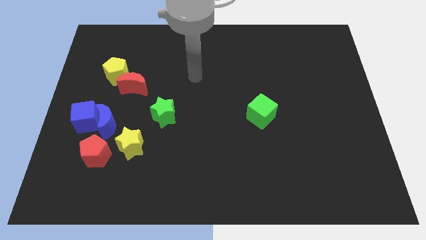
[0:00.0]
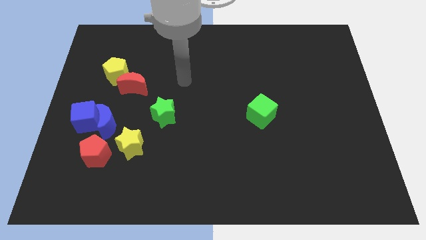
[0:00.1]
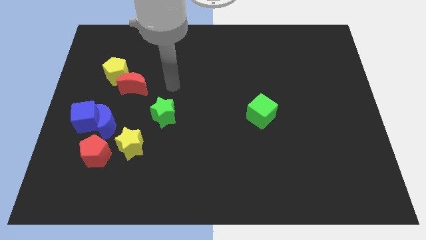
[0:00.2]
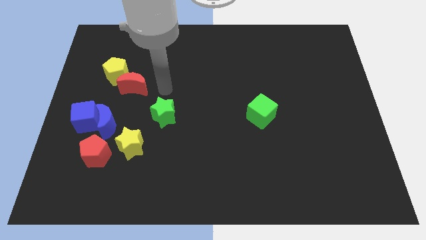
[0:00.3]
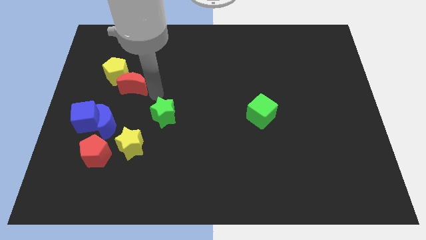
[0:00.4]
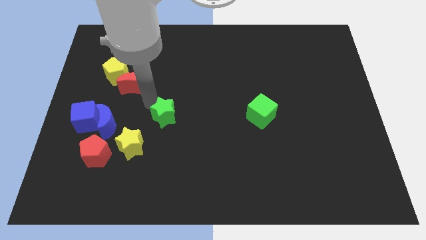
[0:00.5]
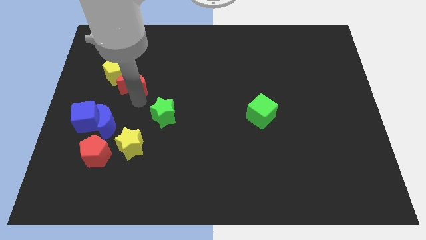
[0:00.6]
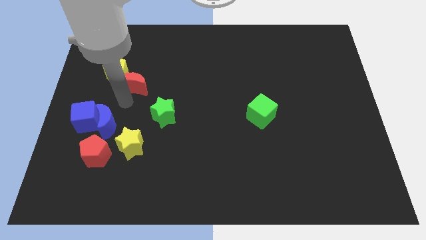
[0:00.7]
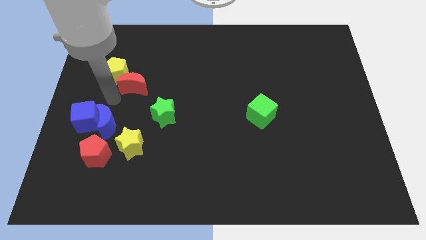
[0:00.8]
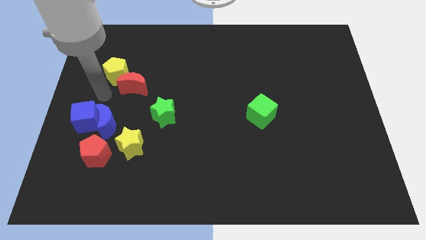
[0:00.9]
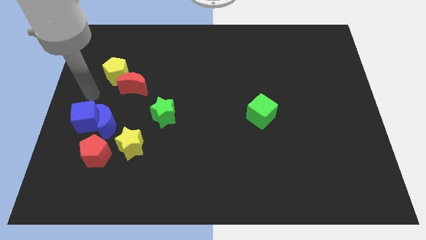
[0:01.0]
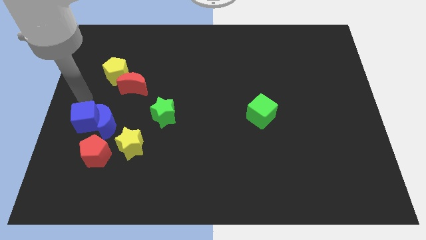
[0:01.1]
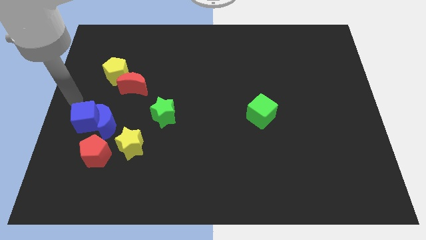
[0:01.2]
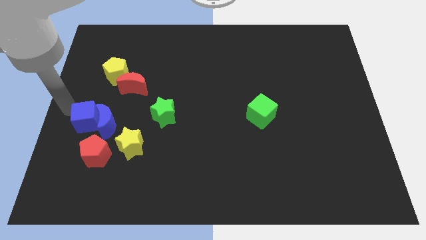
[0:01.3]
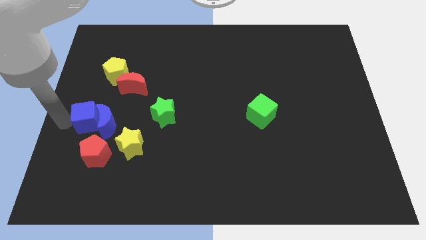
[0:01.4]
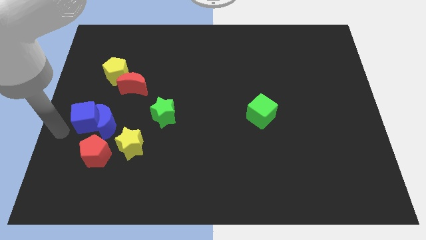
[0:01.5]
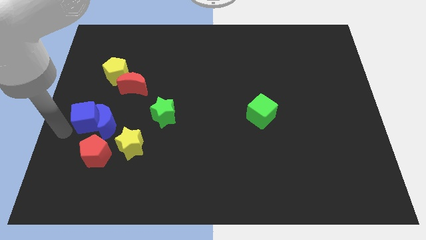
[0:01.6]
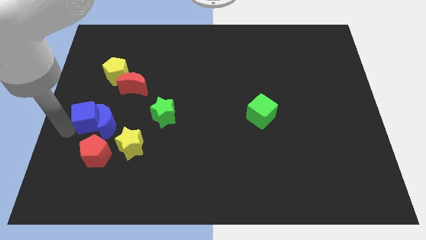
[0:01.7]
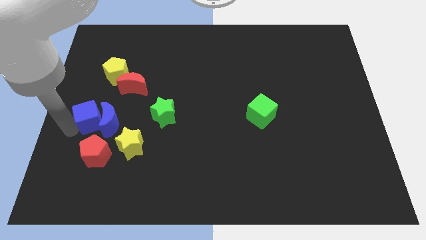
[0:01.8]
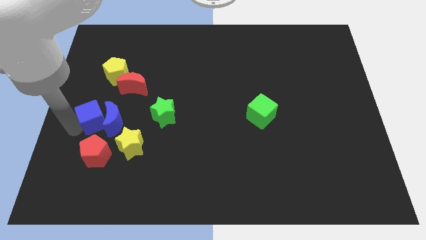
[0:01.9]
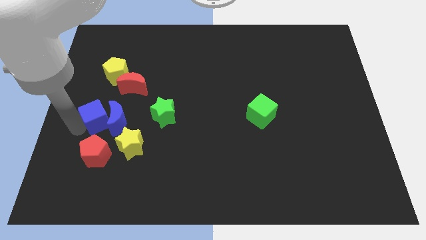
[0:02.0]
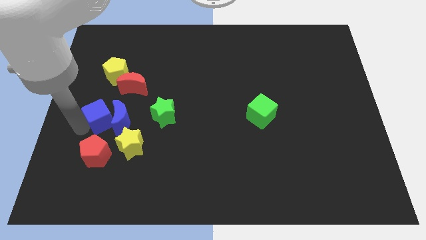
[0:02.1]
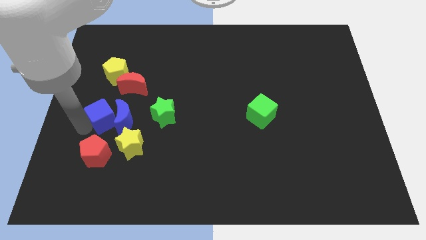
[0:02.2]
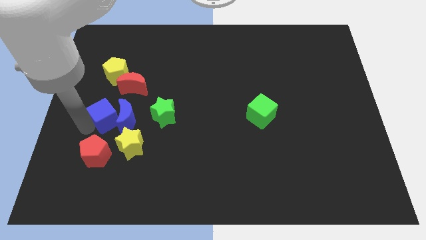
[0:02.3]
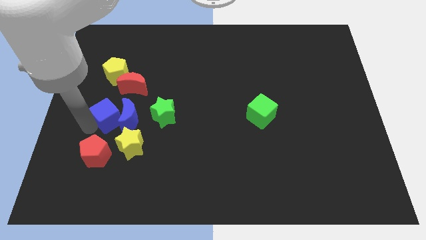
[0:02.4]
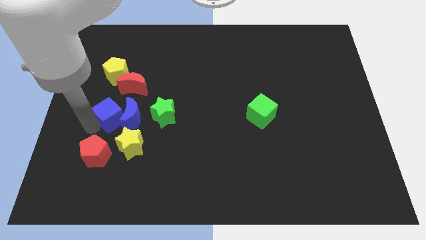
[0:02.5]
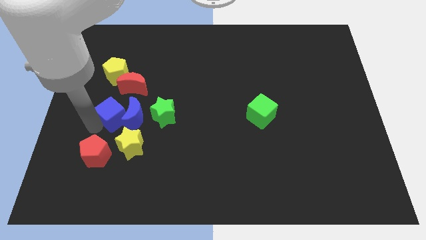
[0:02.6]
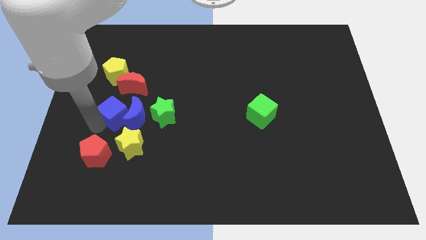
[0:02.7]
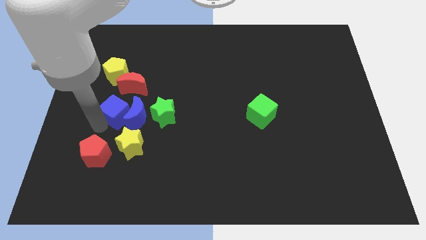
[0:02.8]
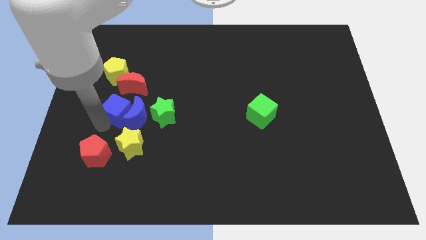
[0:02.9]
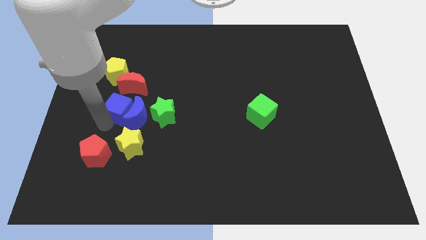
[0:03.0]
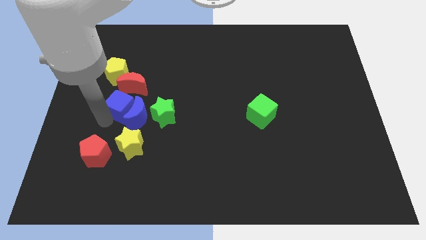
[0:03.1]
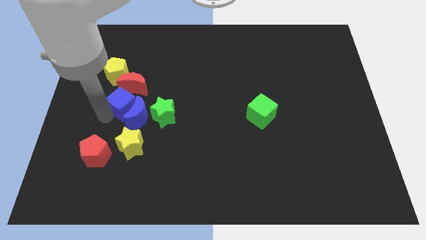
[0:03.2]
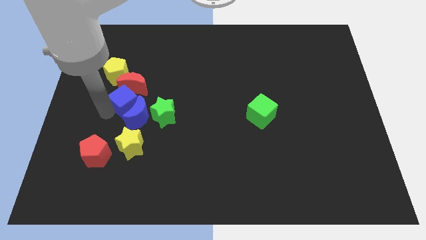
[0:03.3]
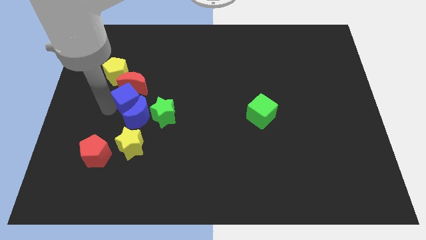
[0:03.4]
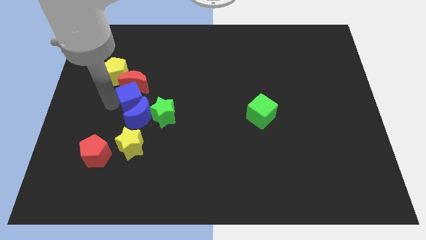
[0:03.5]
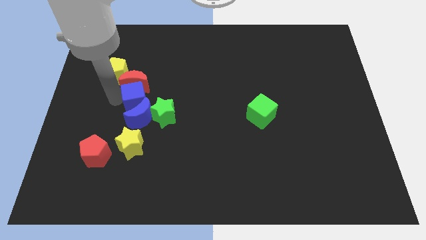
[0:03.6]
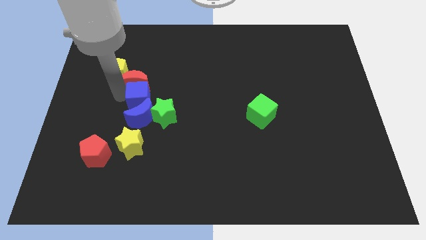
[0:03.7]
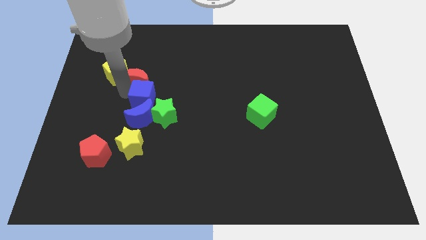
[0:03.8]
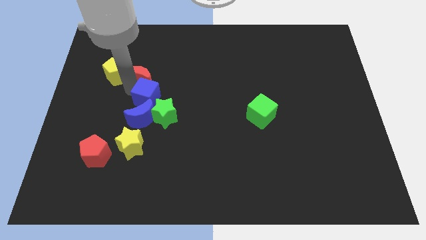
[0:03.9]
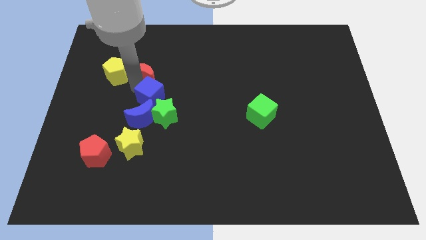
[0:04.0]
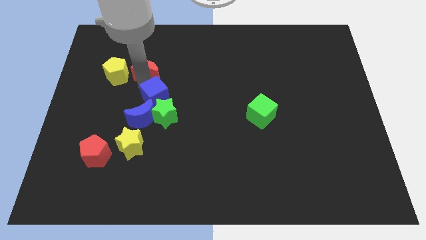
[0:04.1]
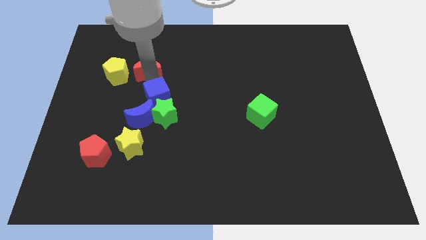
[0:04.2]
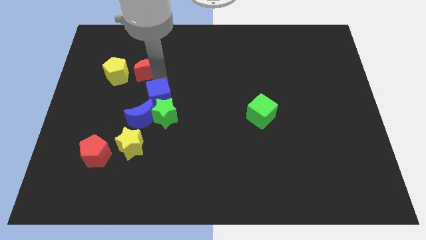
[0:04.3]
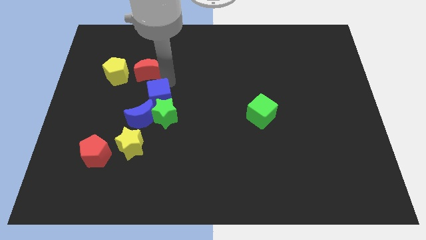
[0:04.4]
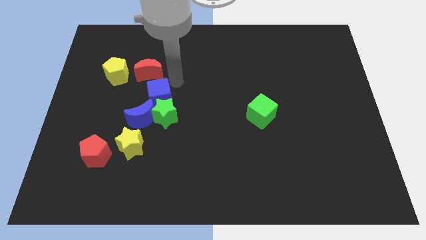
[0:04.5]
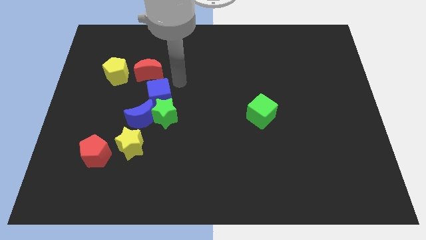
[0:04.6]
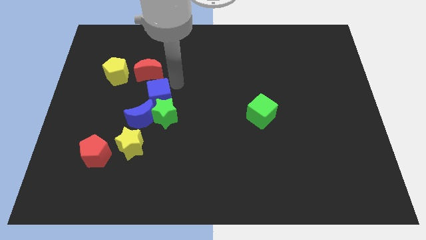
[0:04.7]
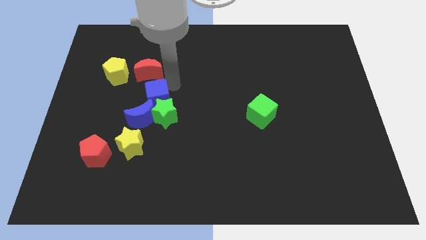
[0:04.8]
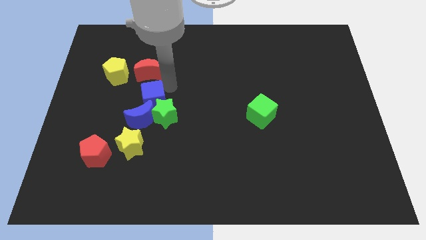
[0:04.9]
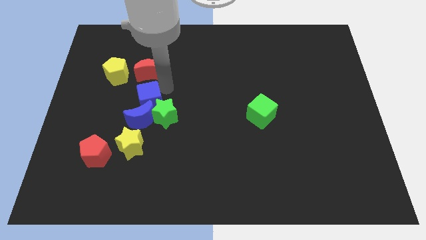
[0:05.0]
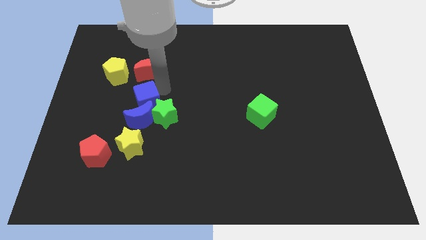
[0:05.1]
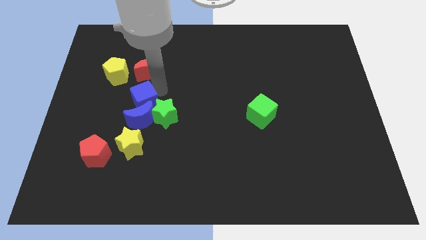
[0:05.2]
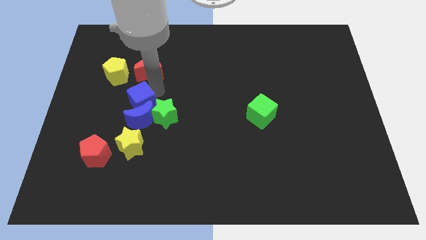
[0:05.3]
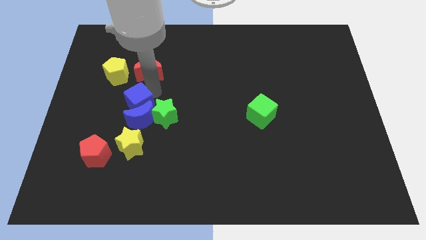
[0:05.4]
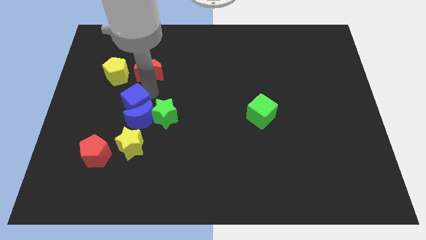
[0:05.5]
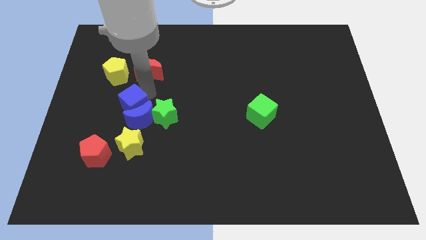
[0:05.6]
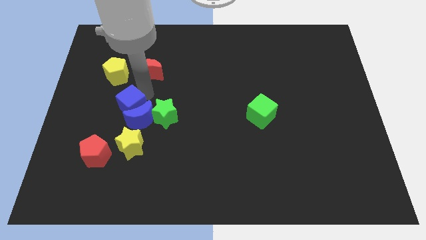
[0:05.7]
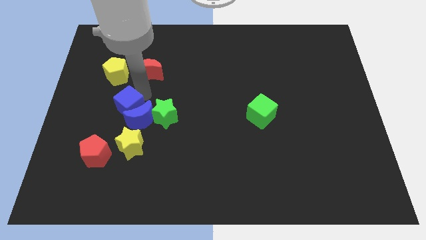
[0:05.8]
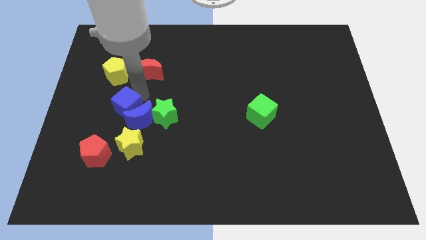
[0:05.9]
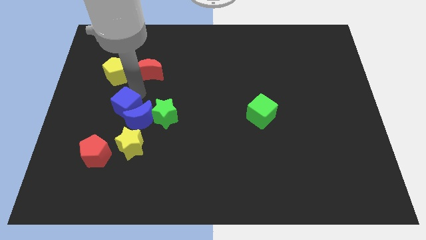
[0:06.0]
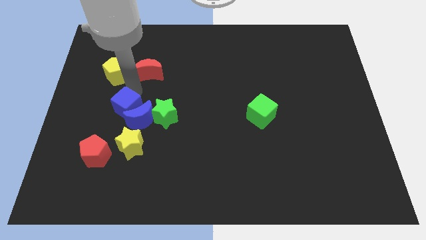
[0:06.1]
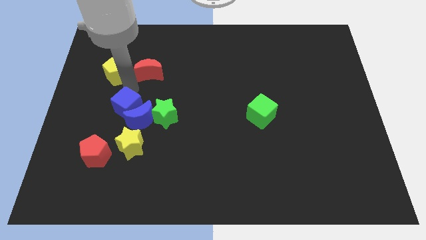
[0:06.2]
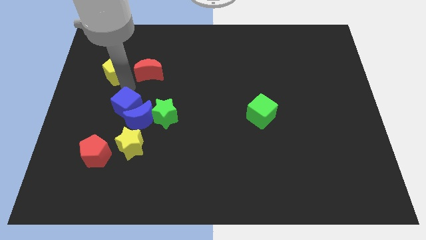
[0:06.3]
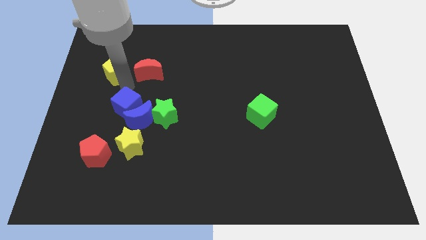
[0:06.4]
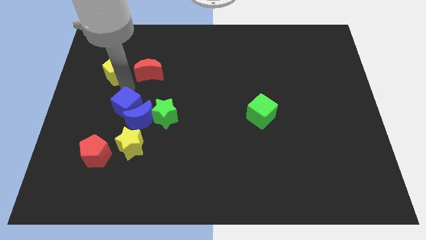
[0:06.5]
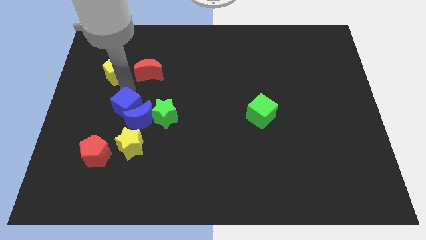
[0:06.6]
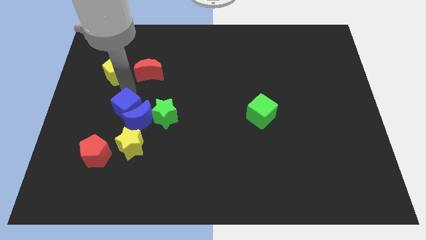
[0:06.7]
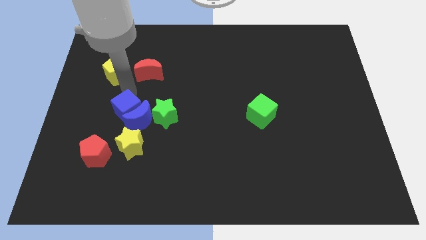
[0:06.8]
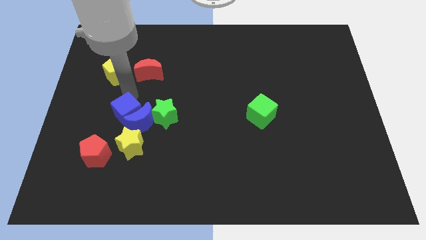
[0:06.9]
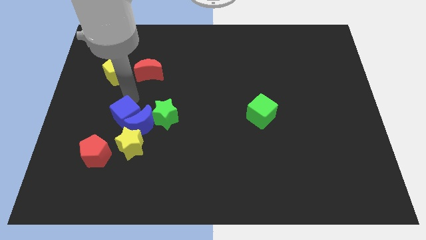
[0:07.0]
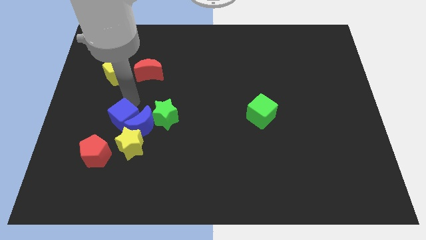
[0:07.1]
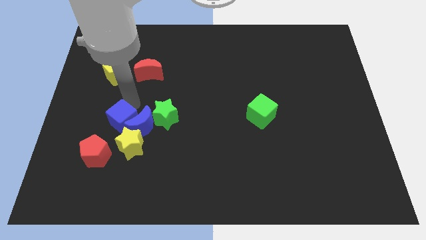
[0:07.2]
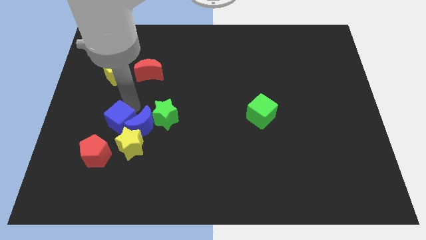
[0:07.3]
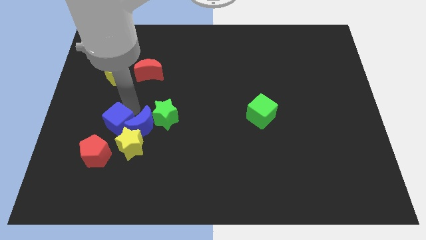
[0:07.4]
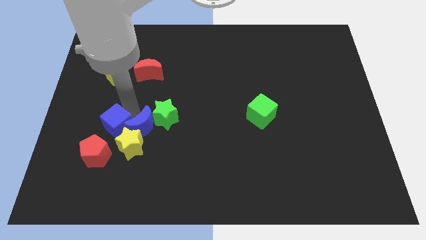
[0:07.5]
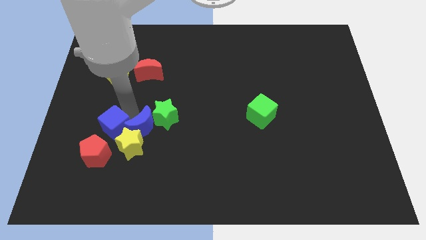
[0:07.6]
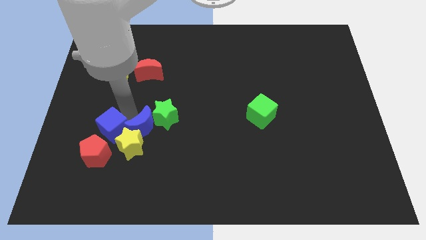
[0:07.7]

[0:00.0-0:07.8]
move the blue cube to the yellow star

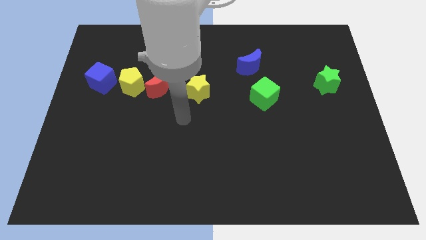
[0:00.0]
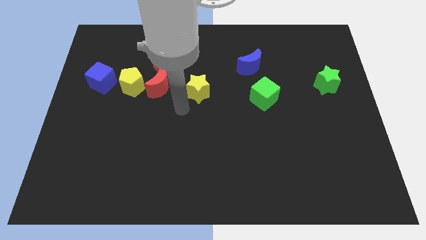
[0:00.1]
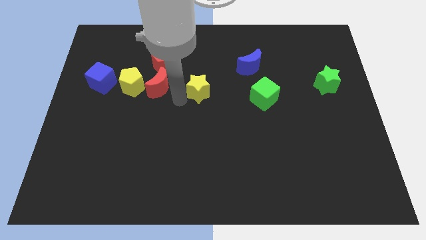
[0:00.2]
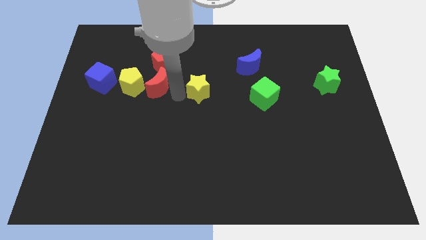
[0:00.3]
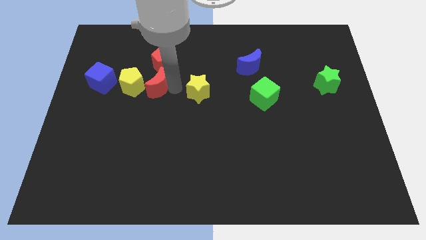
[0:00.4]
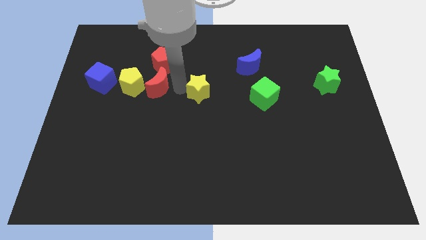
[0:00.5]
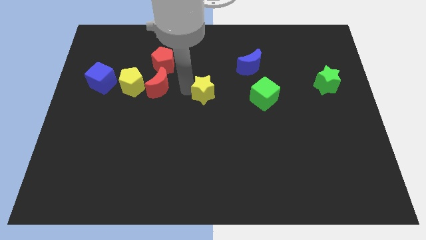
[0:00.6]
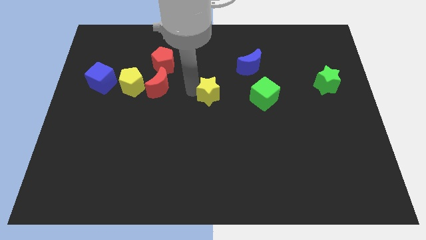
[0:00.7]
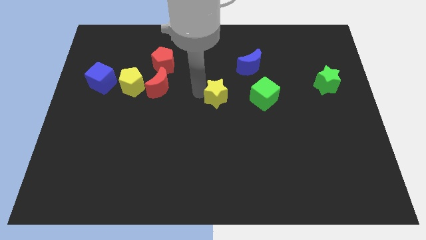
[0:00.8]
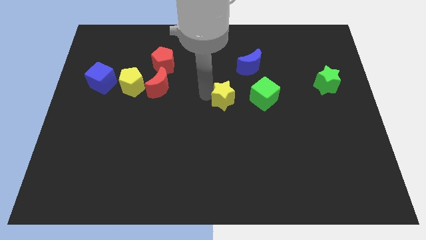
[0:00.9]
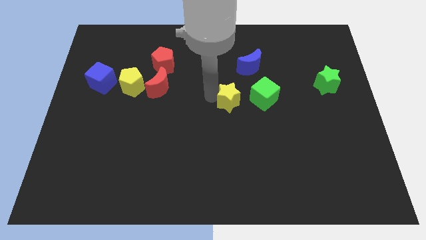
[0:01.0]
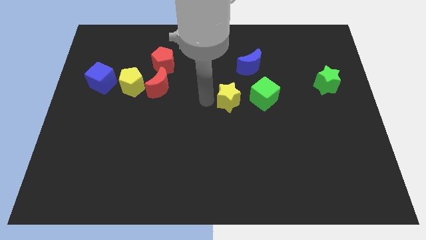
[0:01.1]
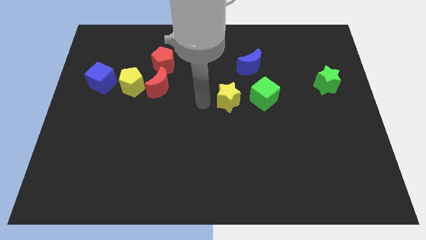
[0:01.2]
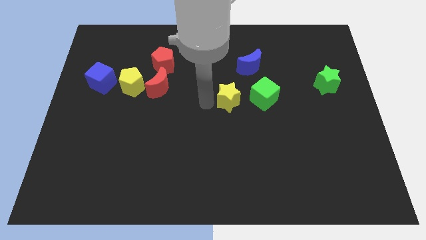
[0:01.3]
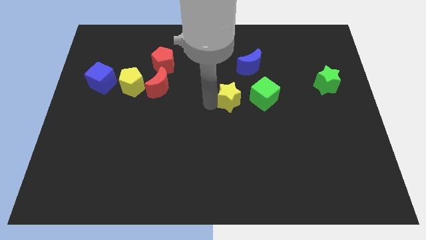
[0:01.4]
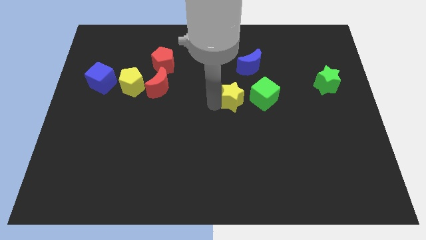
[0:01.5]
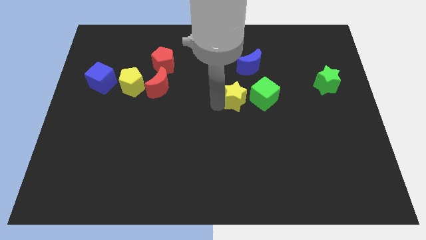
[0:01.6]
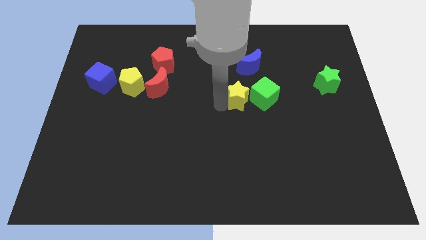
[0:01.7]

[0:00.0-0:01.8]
put the yellow star next to the green cube
